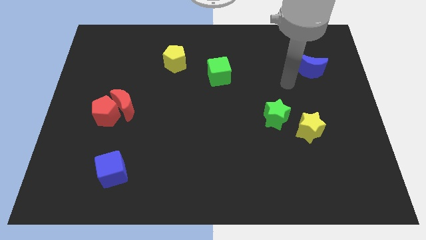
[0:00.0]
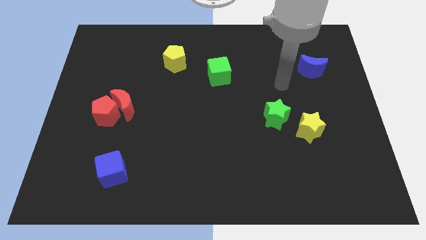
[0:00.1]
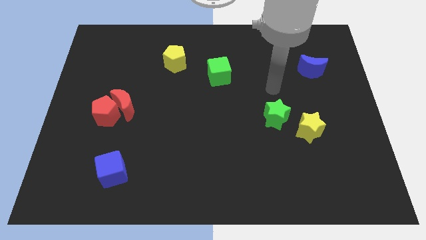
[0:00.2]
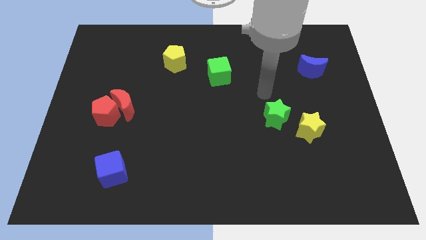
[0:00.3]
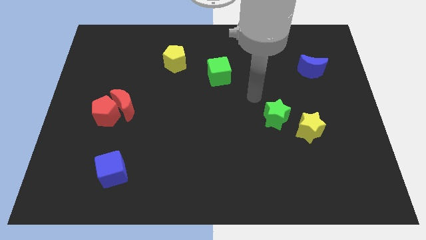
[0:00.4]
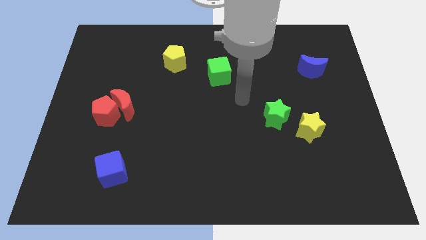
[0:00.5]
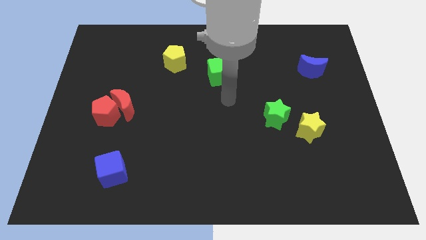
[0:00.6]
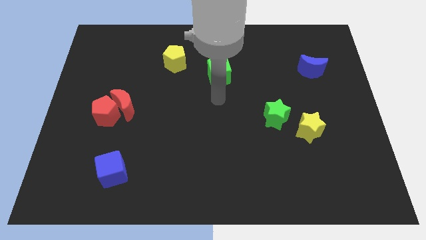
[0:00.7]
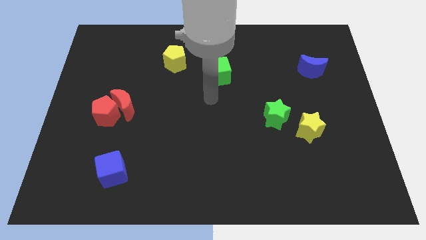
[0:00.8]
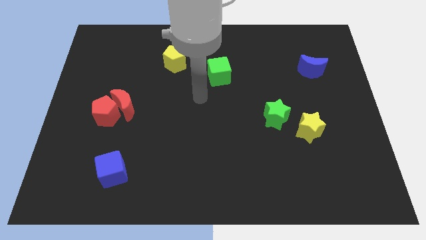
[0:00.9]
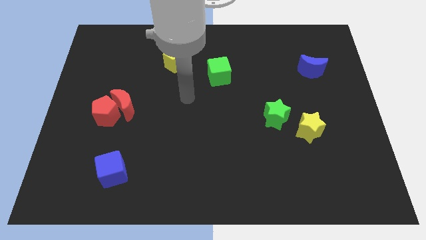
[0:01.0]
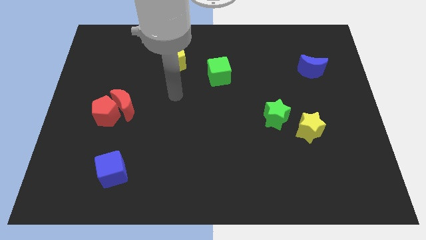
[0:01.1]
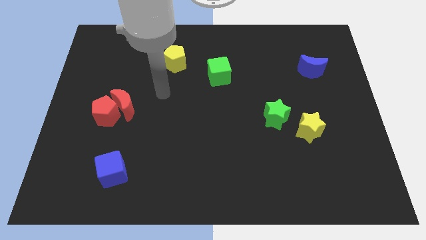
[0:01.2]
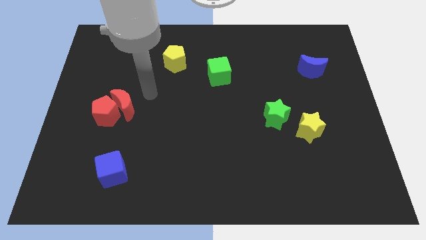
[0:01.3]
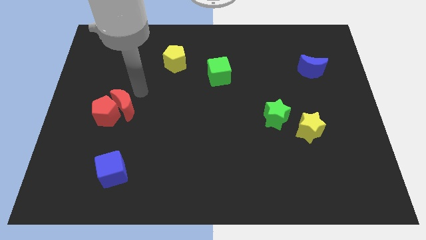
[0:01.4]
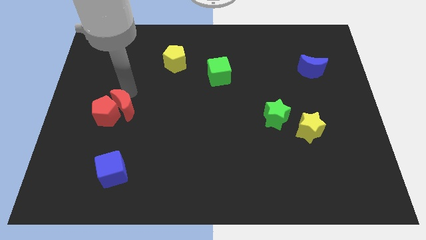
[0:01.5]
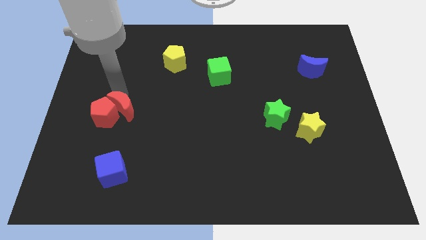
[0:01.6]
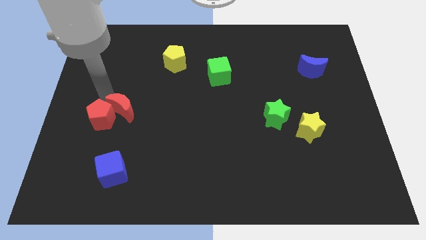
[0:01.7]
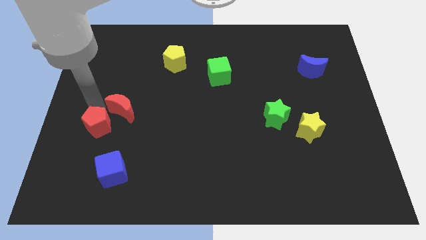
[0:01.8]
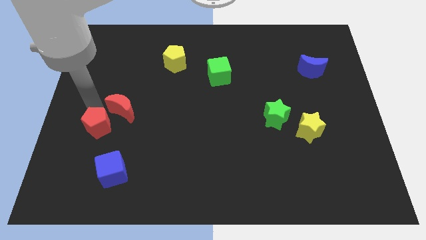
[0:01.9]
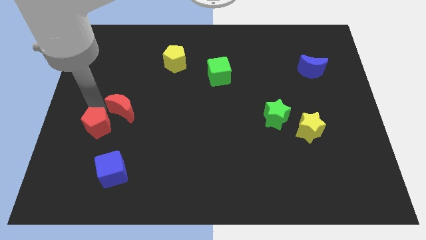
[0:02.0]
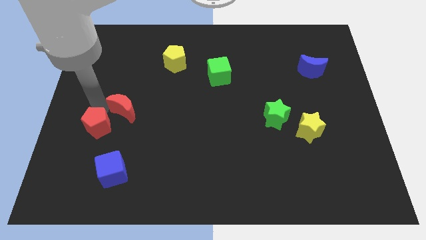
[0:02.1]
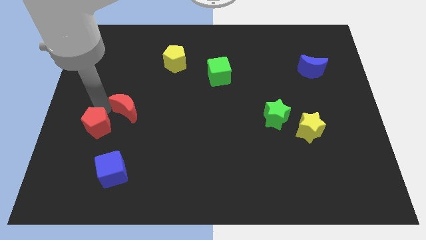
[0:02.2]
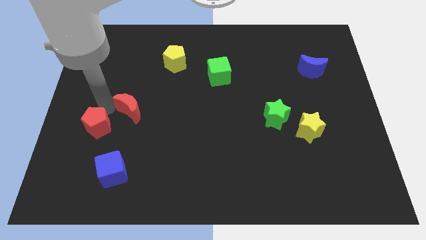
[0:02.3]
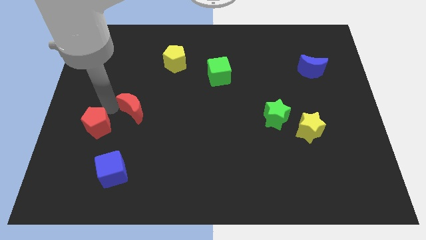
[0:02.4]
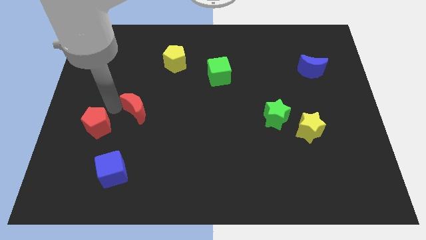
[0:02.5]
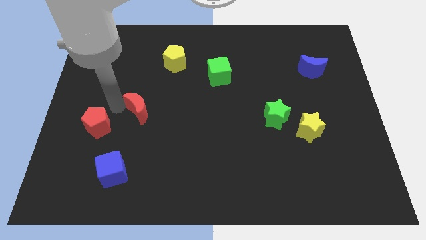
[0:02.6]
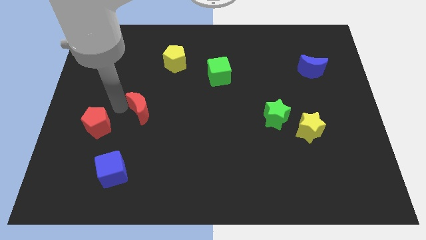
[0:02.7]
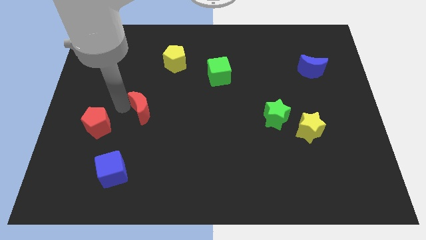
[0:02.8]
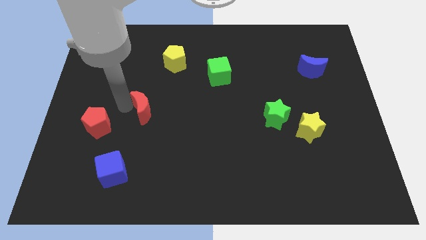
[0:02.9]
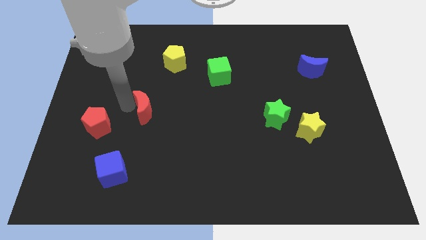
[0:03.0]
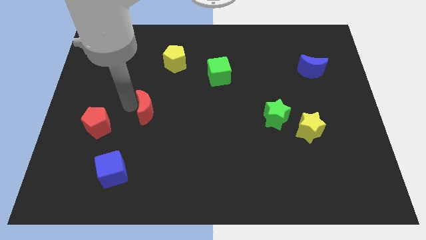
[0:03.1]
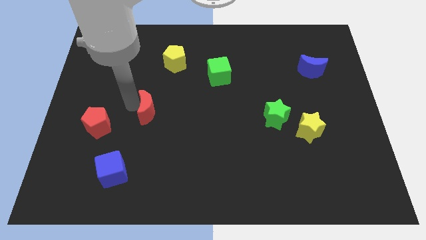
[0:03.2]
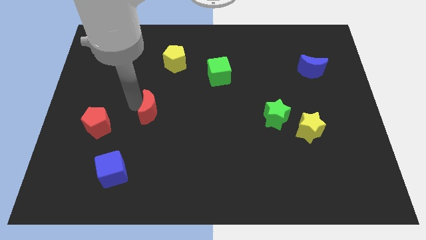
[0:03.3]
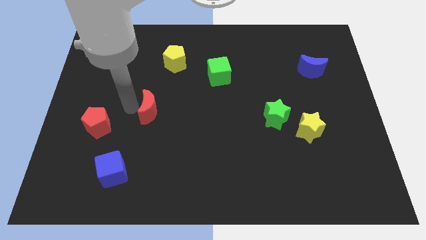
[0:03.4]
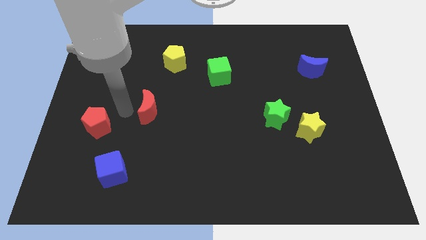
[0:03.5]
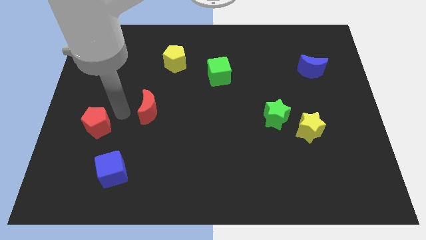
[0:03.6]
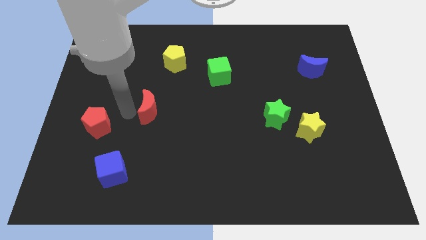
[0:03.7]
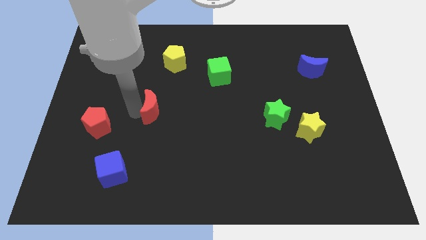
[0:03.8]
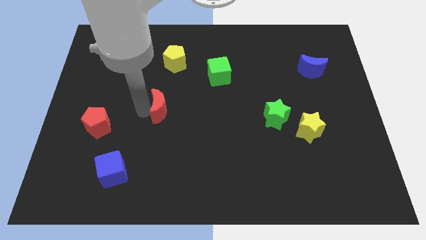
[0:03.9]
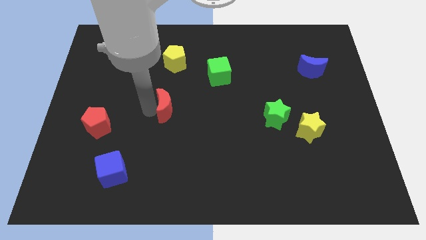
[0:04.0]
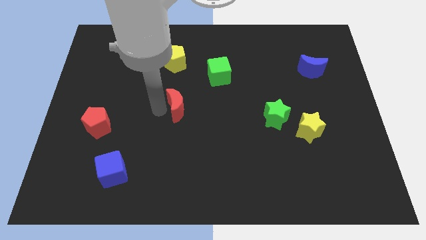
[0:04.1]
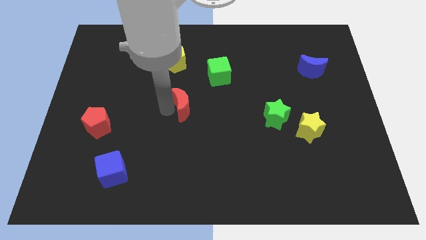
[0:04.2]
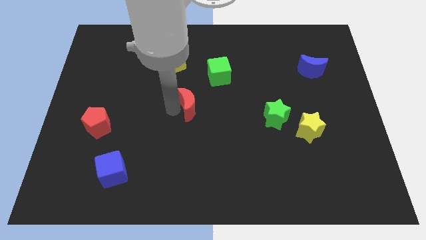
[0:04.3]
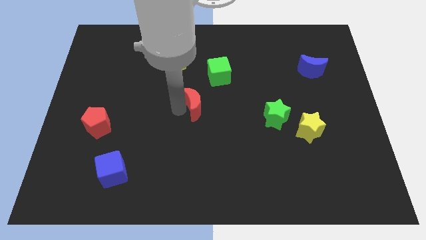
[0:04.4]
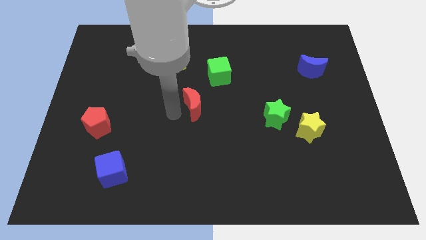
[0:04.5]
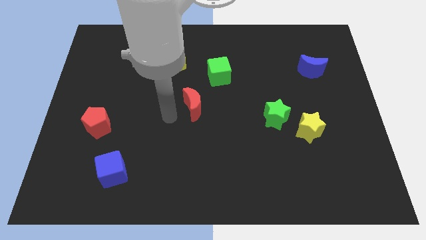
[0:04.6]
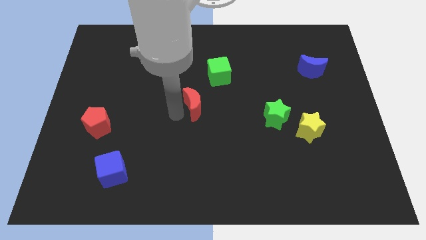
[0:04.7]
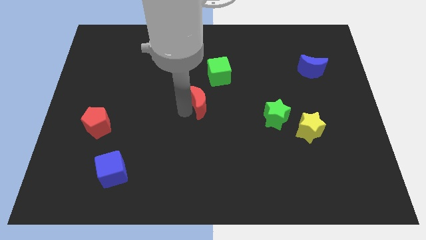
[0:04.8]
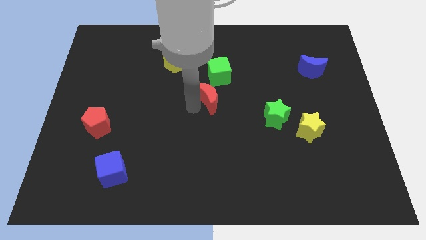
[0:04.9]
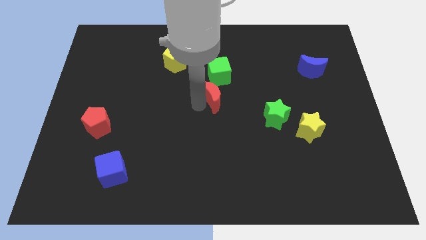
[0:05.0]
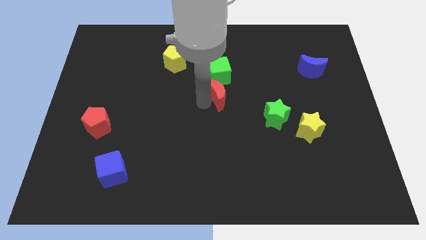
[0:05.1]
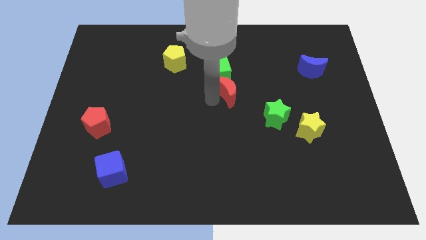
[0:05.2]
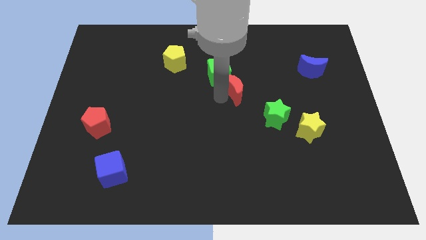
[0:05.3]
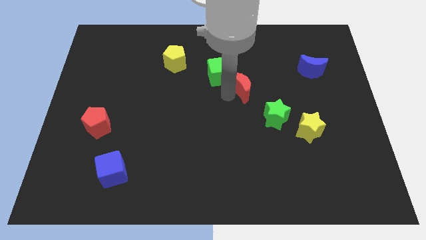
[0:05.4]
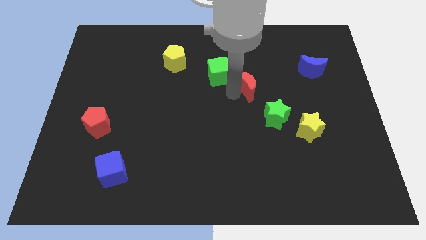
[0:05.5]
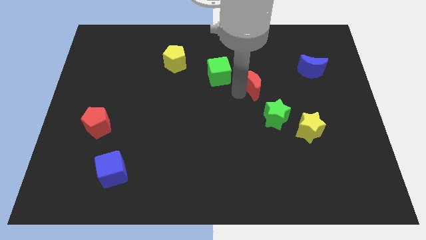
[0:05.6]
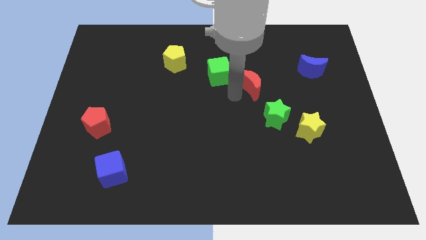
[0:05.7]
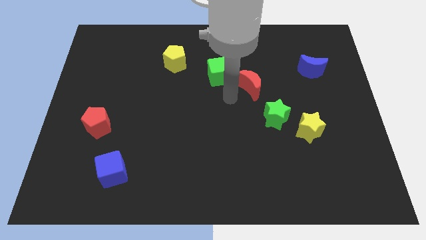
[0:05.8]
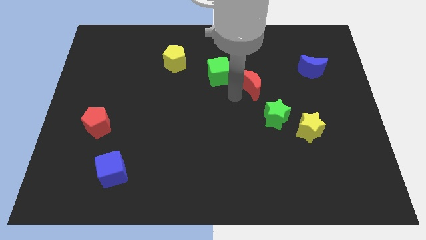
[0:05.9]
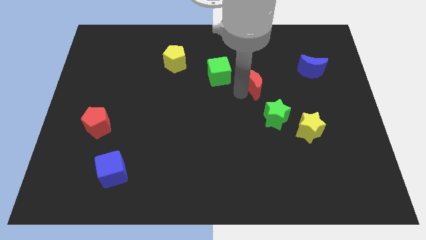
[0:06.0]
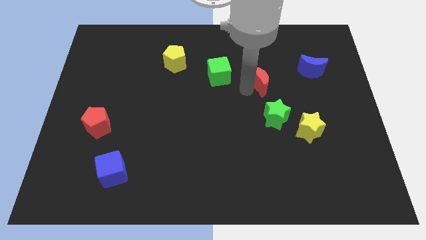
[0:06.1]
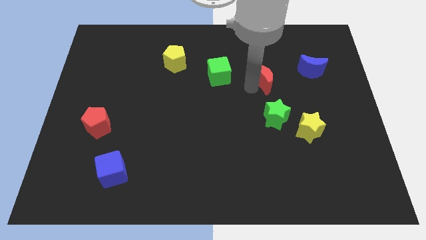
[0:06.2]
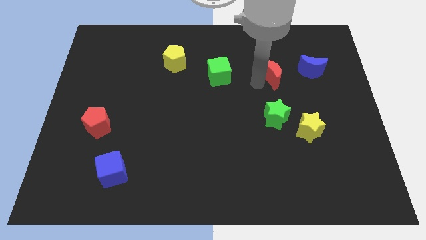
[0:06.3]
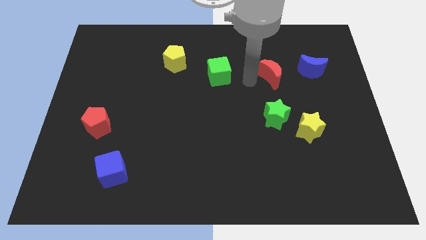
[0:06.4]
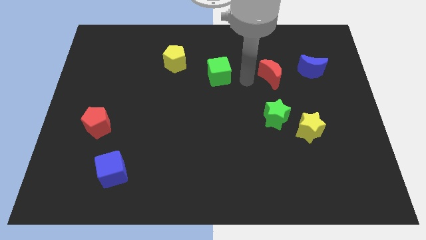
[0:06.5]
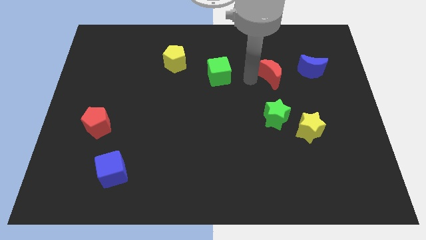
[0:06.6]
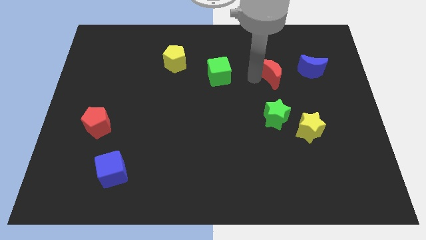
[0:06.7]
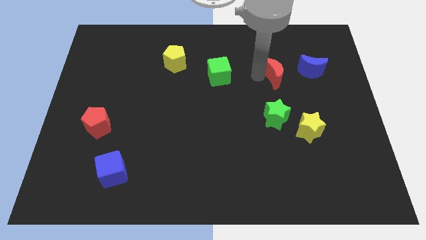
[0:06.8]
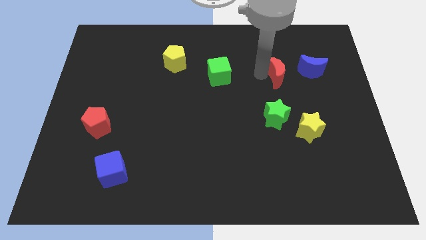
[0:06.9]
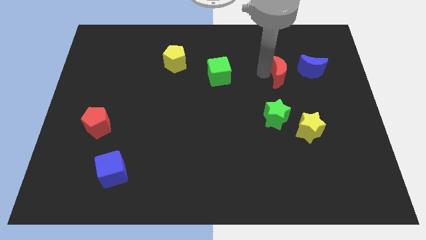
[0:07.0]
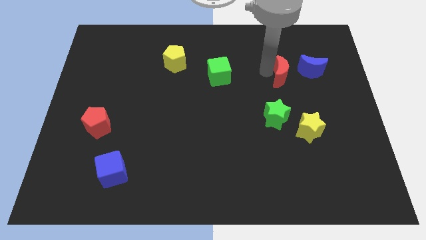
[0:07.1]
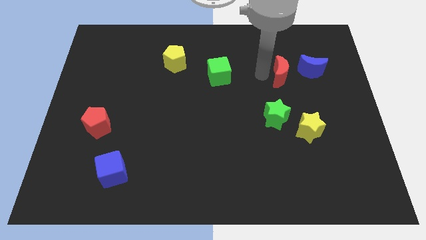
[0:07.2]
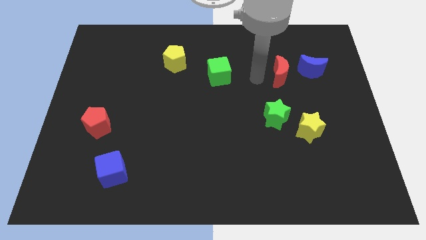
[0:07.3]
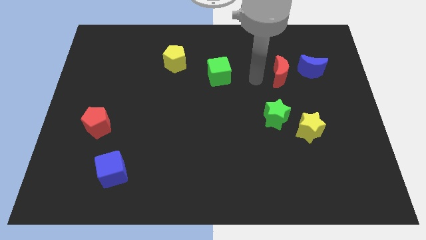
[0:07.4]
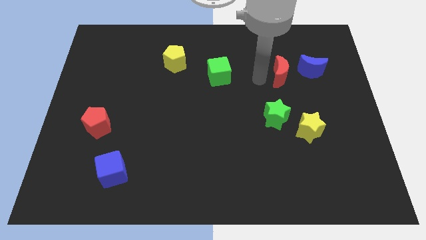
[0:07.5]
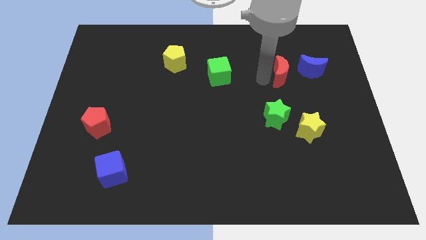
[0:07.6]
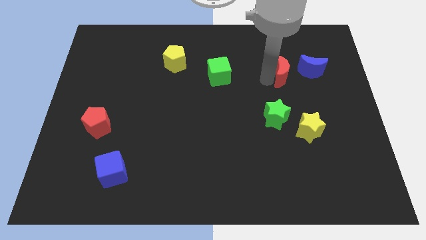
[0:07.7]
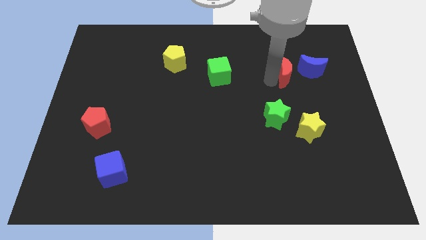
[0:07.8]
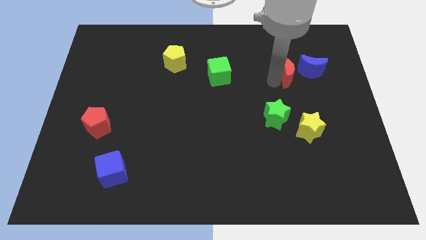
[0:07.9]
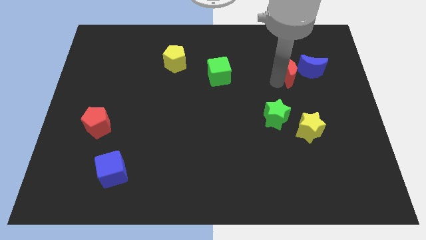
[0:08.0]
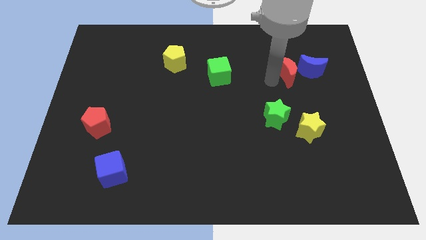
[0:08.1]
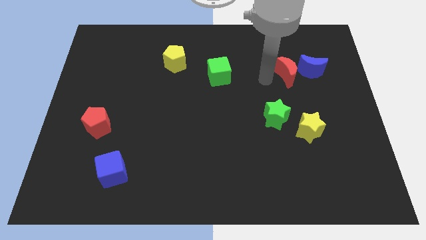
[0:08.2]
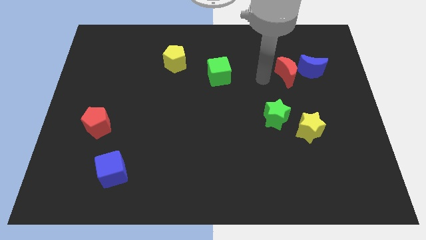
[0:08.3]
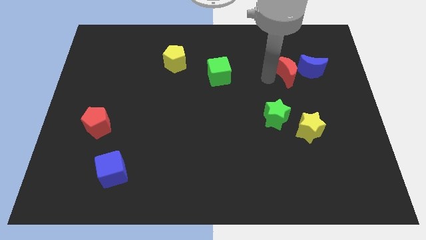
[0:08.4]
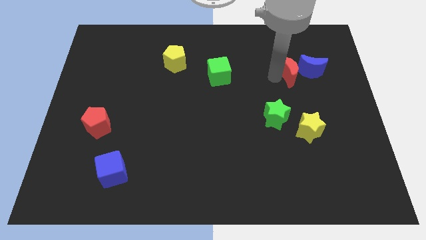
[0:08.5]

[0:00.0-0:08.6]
push the red moon to the blue moon
